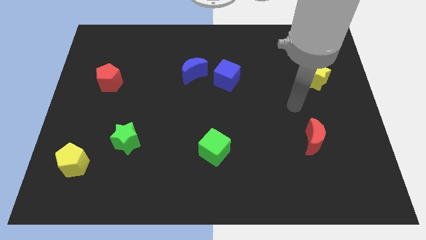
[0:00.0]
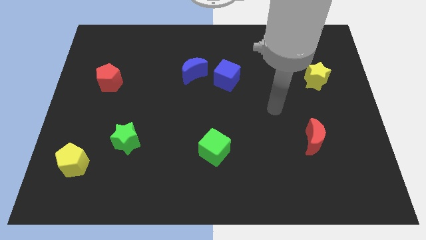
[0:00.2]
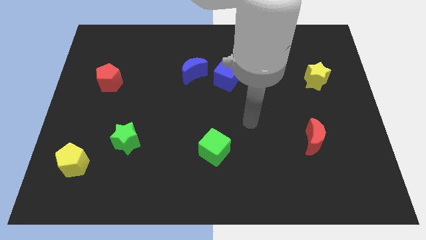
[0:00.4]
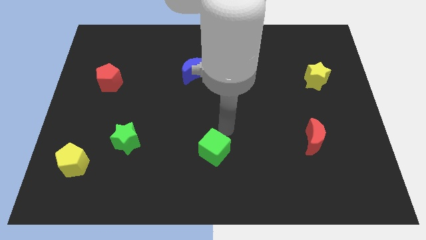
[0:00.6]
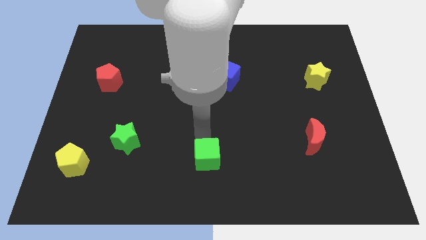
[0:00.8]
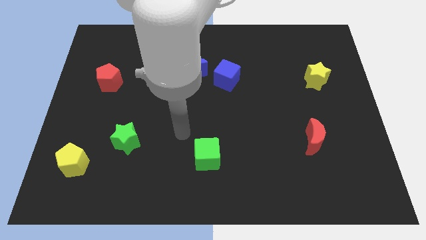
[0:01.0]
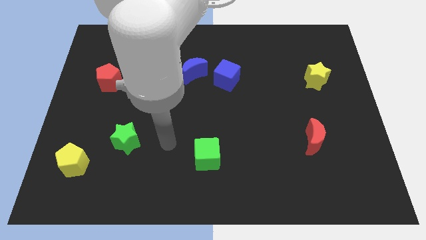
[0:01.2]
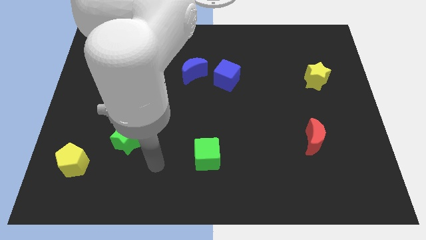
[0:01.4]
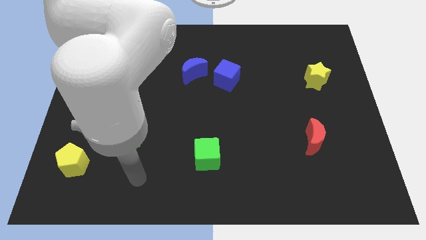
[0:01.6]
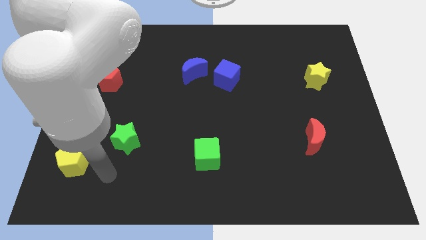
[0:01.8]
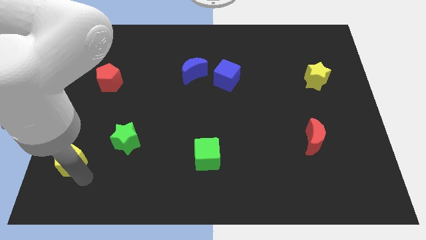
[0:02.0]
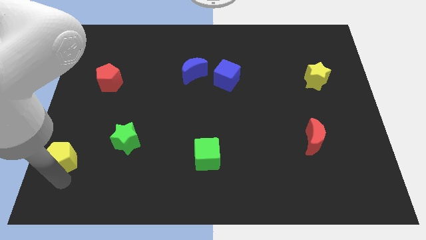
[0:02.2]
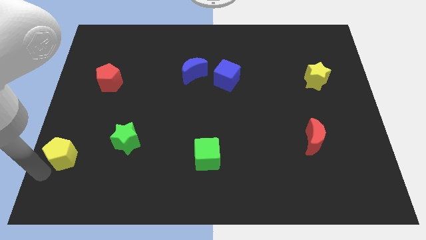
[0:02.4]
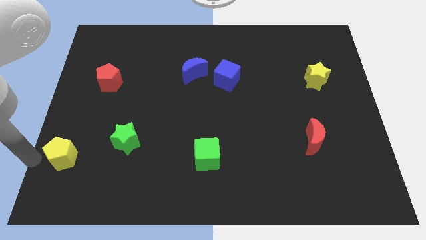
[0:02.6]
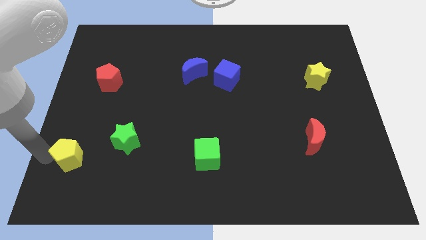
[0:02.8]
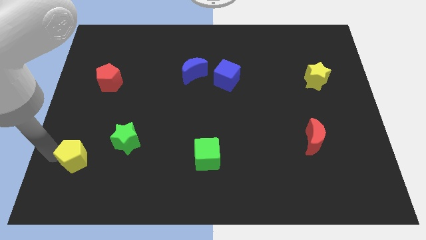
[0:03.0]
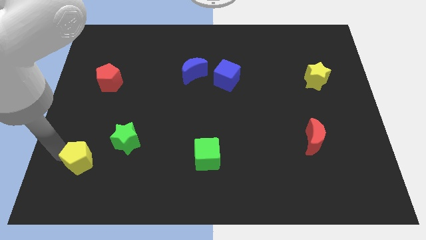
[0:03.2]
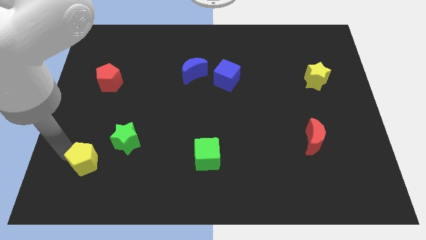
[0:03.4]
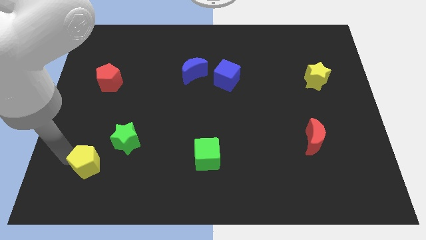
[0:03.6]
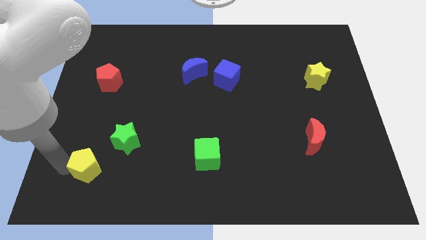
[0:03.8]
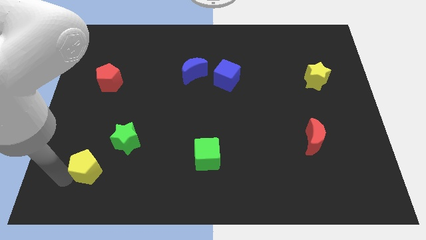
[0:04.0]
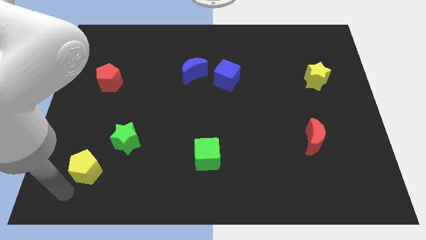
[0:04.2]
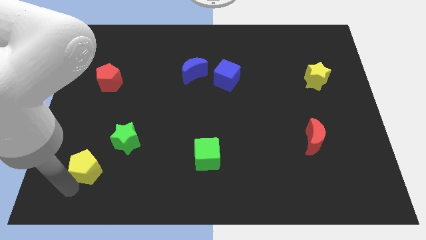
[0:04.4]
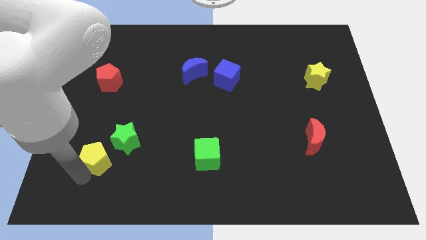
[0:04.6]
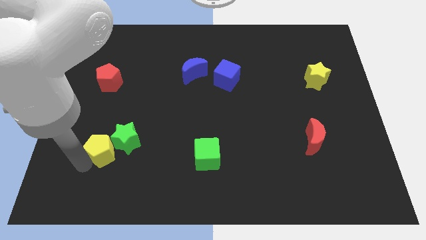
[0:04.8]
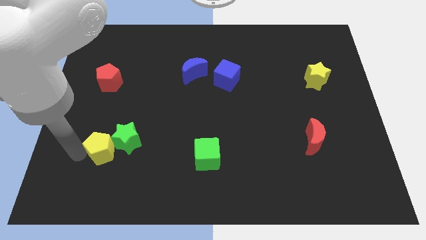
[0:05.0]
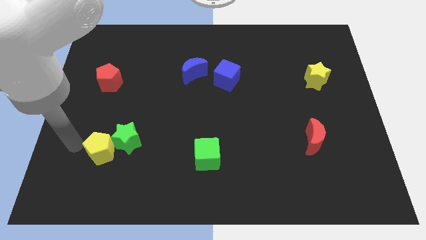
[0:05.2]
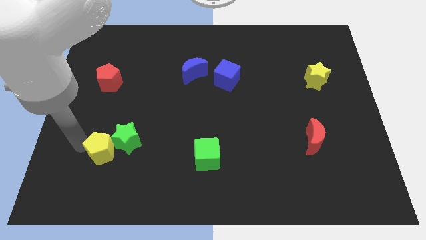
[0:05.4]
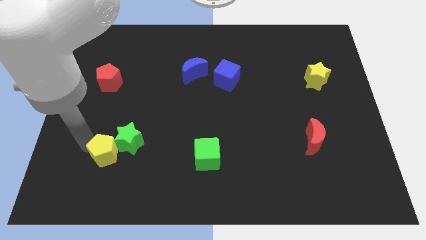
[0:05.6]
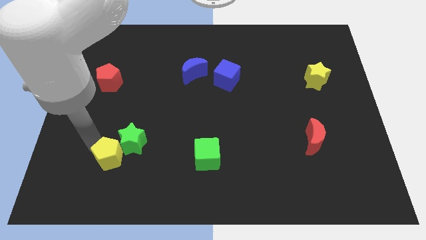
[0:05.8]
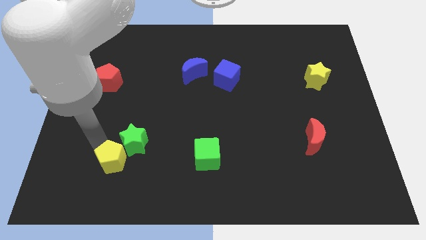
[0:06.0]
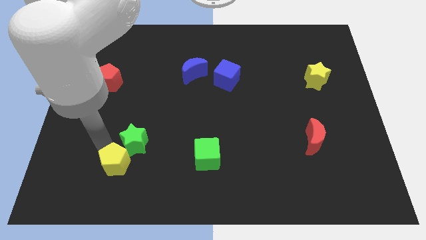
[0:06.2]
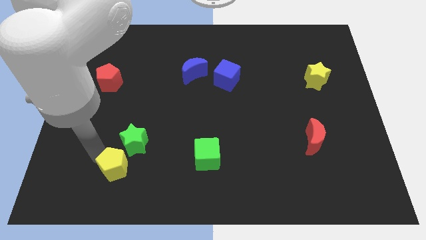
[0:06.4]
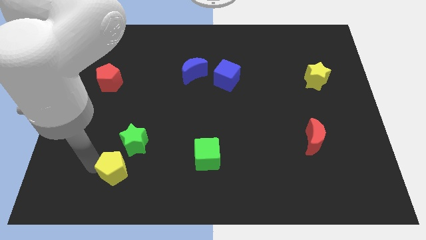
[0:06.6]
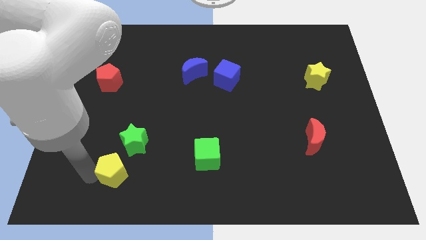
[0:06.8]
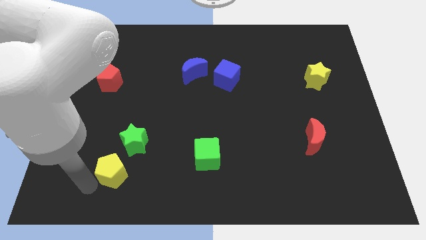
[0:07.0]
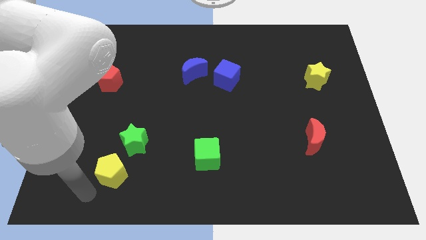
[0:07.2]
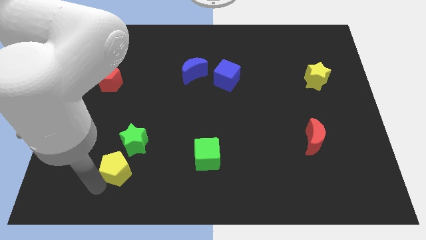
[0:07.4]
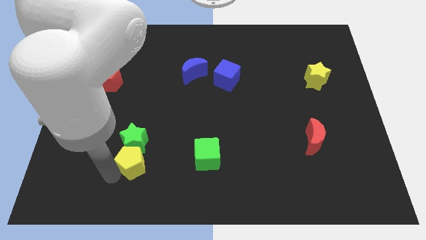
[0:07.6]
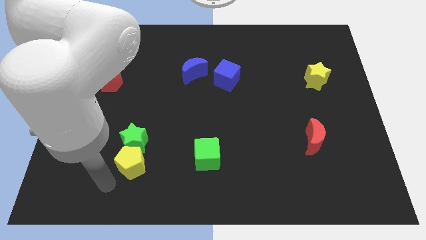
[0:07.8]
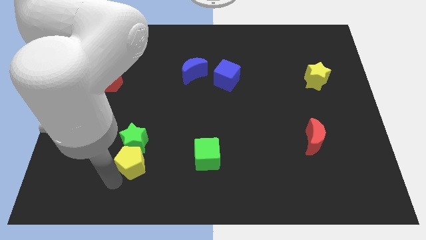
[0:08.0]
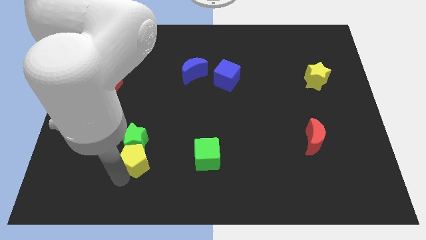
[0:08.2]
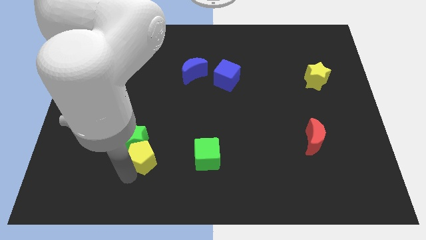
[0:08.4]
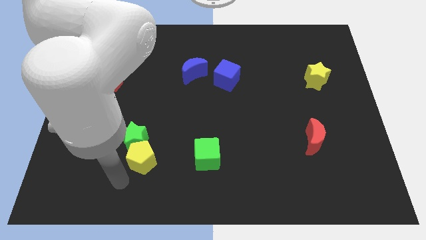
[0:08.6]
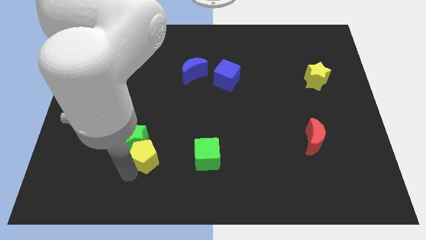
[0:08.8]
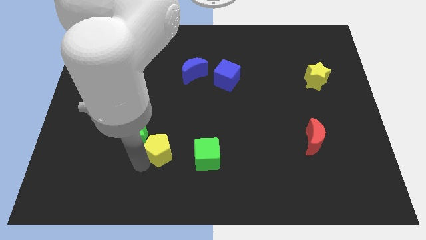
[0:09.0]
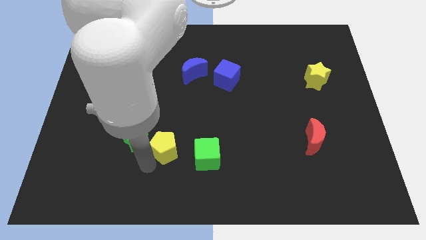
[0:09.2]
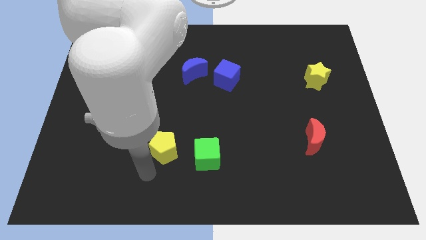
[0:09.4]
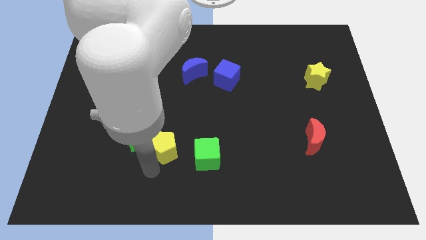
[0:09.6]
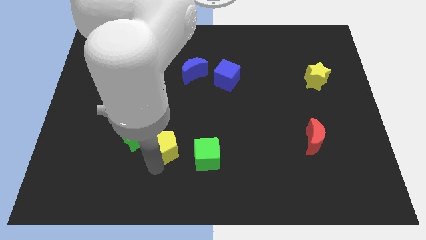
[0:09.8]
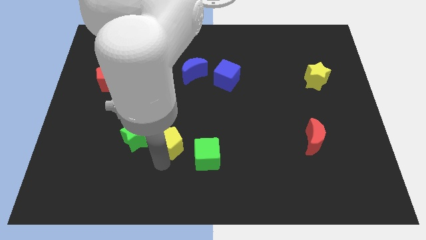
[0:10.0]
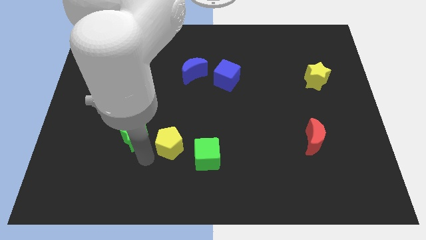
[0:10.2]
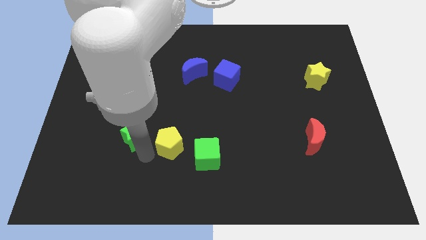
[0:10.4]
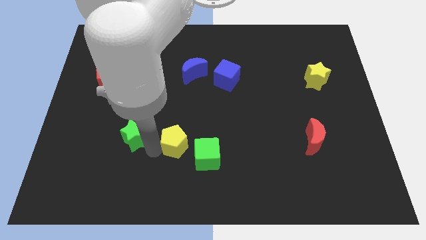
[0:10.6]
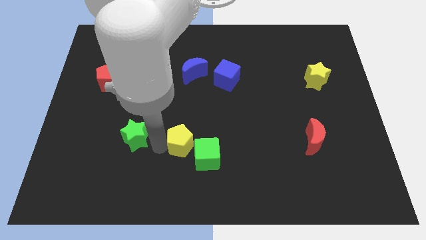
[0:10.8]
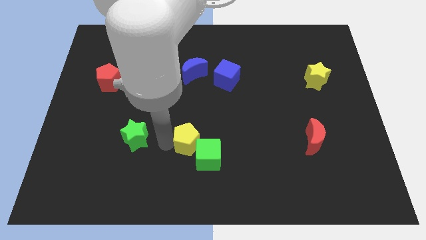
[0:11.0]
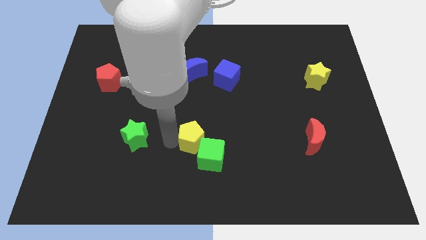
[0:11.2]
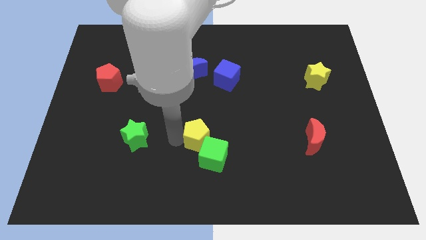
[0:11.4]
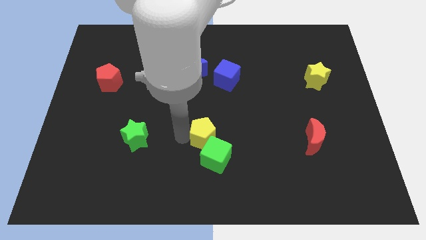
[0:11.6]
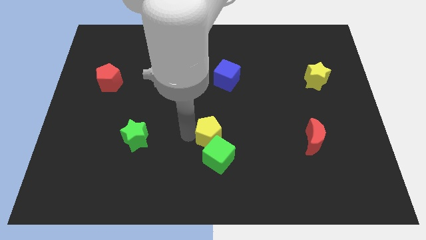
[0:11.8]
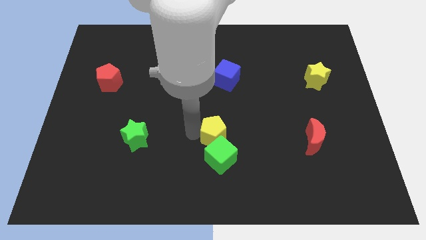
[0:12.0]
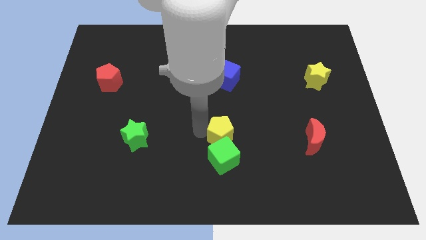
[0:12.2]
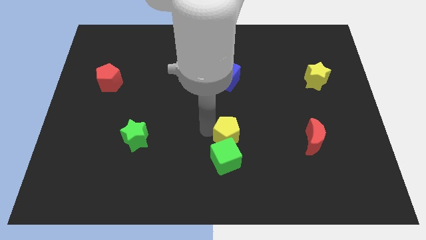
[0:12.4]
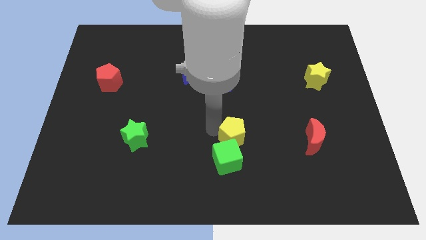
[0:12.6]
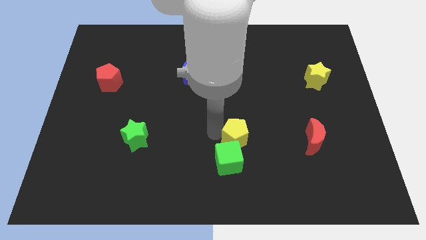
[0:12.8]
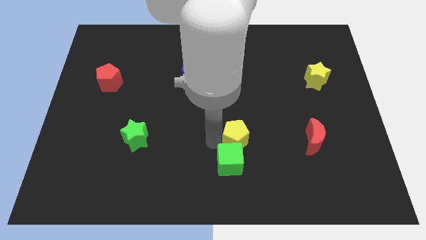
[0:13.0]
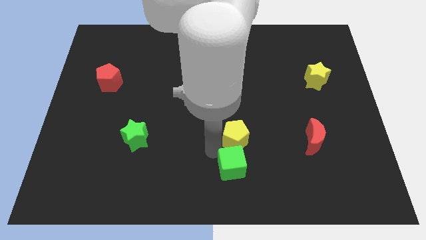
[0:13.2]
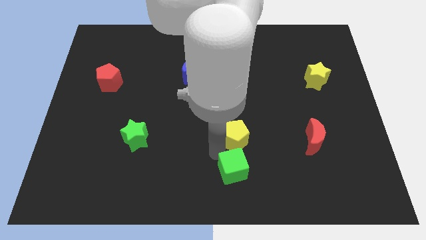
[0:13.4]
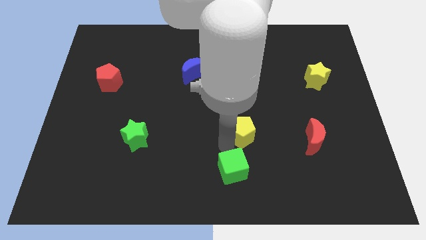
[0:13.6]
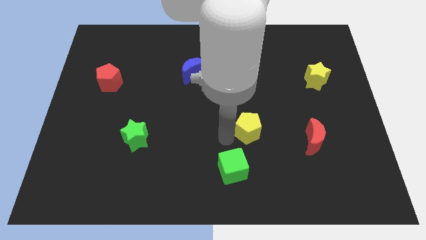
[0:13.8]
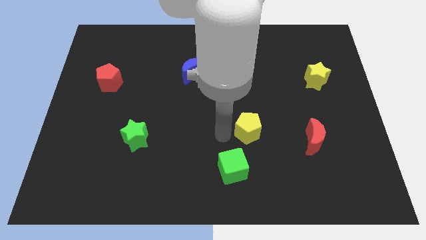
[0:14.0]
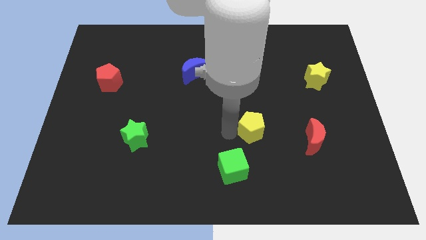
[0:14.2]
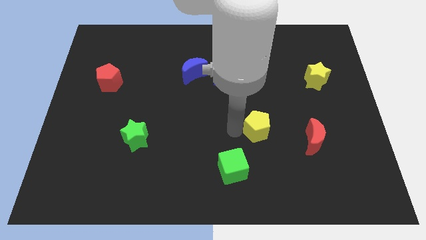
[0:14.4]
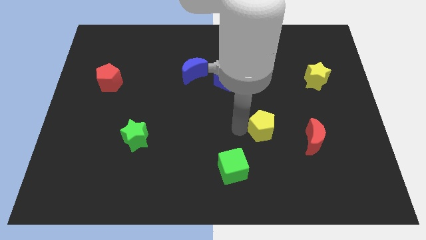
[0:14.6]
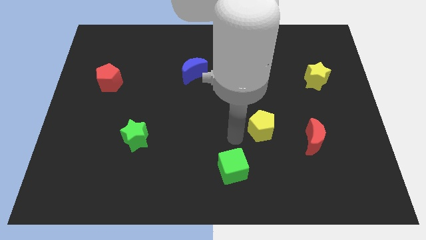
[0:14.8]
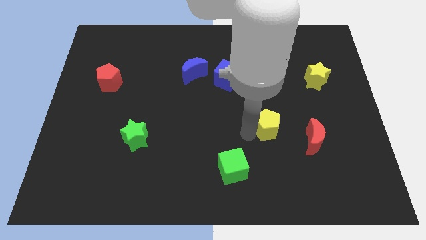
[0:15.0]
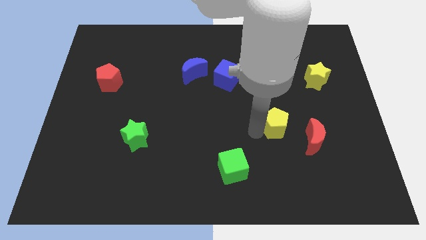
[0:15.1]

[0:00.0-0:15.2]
put the yellow pentagon diagonally up and to the left of the red moon
